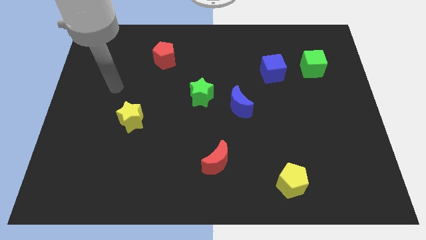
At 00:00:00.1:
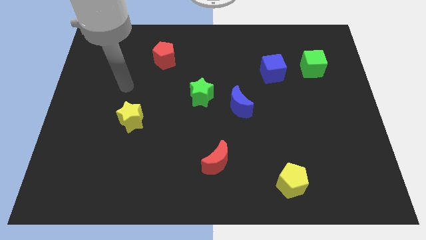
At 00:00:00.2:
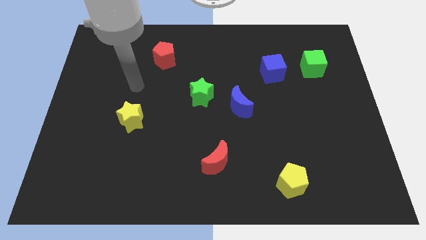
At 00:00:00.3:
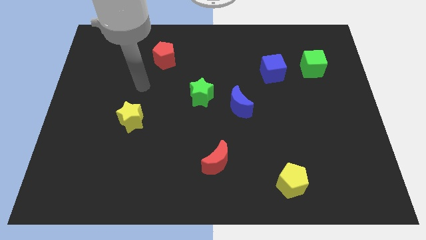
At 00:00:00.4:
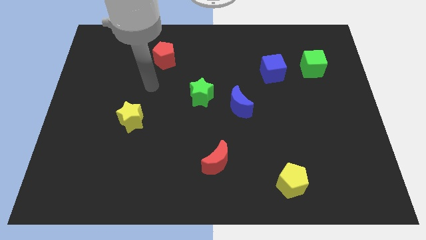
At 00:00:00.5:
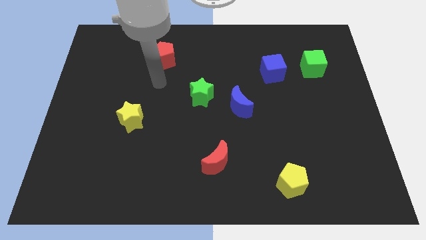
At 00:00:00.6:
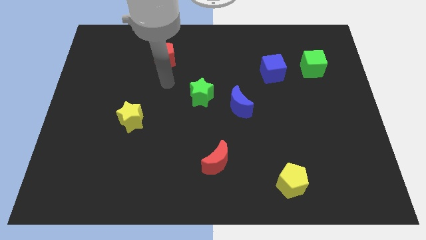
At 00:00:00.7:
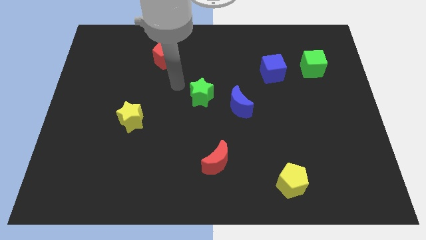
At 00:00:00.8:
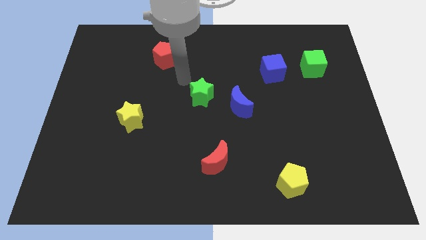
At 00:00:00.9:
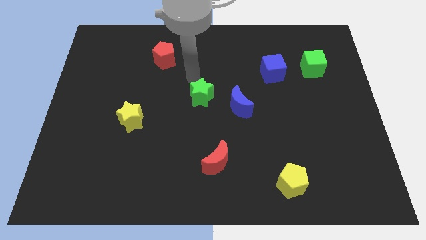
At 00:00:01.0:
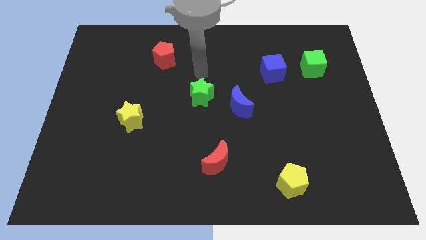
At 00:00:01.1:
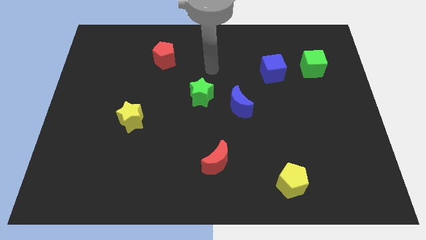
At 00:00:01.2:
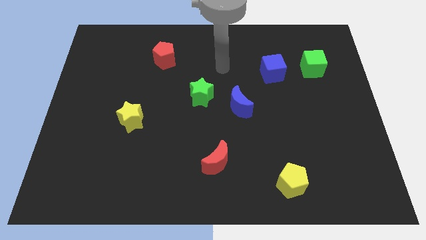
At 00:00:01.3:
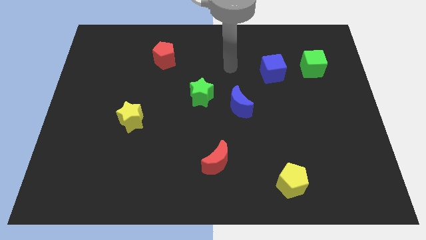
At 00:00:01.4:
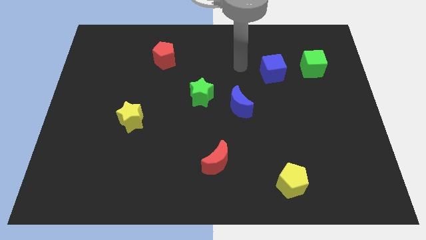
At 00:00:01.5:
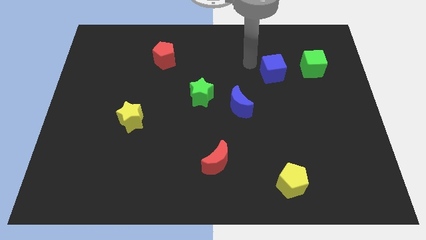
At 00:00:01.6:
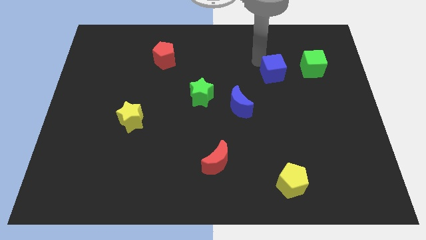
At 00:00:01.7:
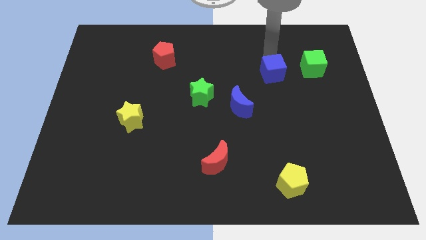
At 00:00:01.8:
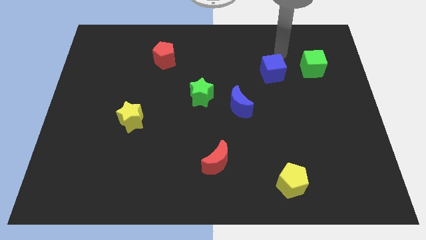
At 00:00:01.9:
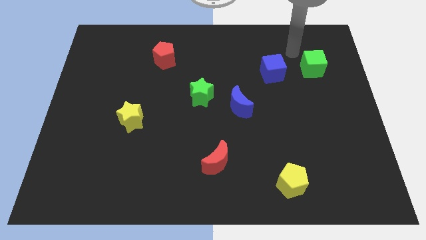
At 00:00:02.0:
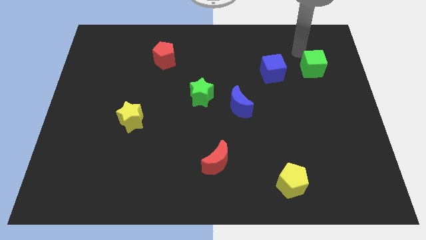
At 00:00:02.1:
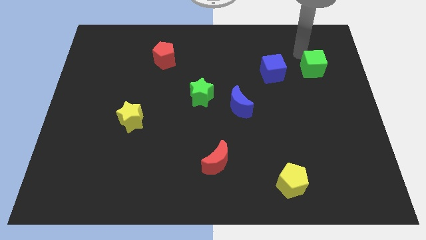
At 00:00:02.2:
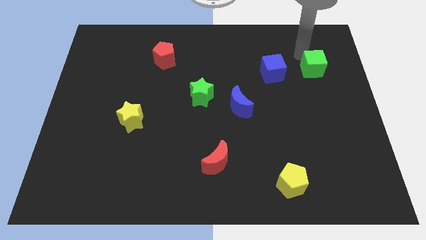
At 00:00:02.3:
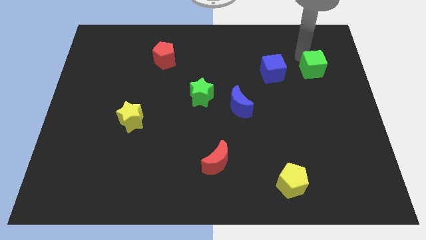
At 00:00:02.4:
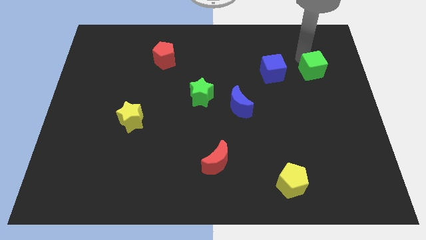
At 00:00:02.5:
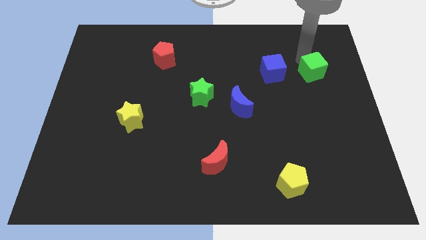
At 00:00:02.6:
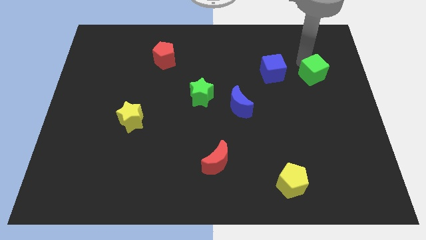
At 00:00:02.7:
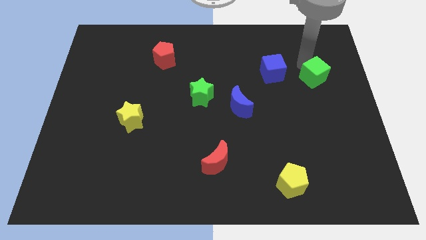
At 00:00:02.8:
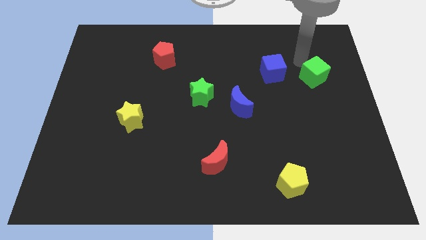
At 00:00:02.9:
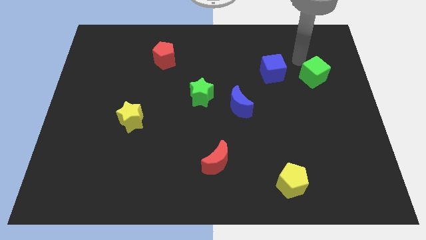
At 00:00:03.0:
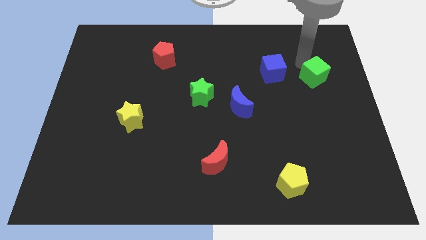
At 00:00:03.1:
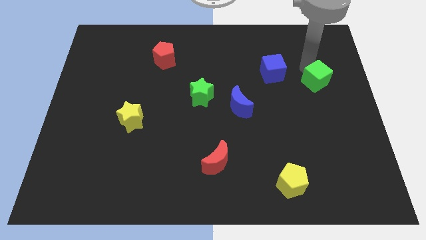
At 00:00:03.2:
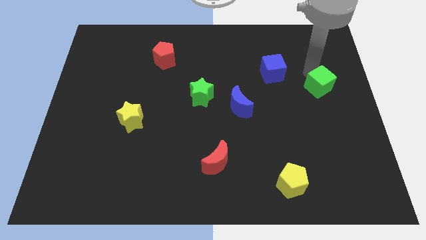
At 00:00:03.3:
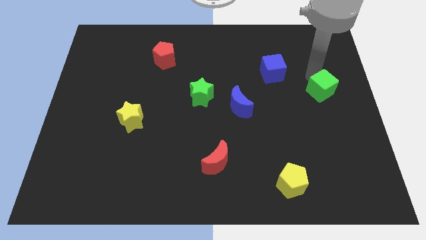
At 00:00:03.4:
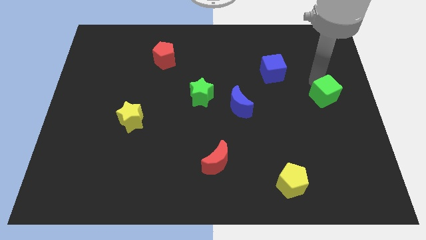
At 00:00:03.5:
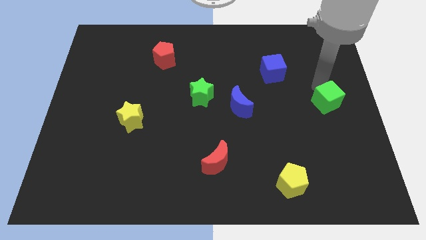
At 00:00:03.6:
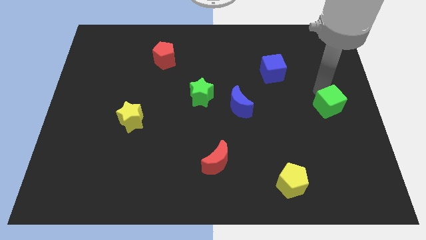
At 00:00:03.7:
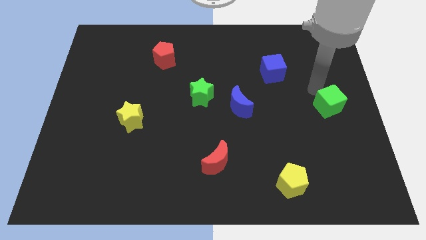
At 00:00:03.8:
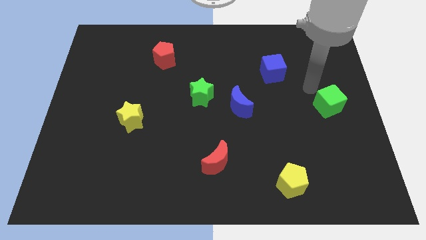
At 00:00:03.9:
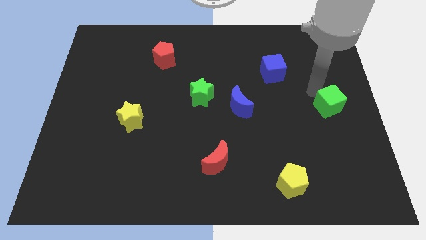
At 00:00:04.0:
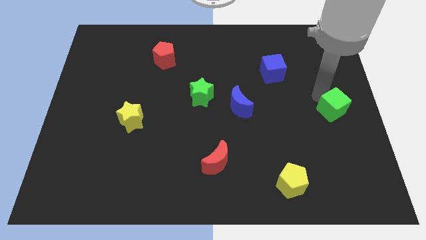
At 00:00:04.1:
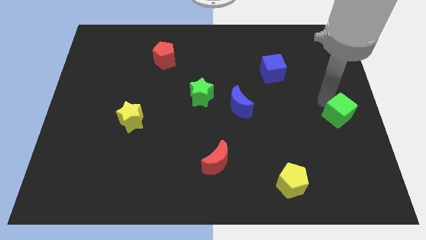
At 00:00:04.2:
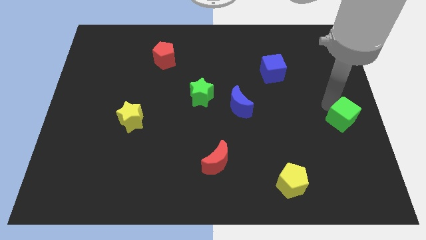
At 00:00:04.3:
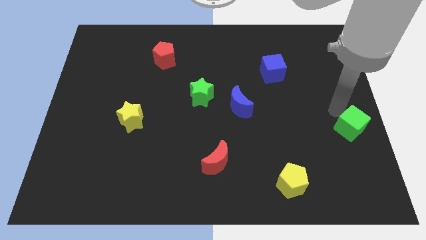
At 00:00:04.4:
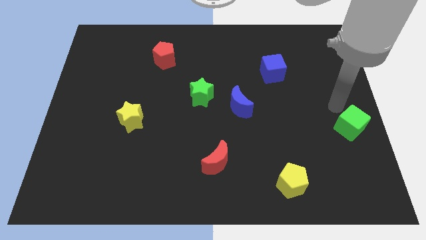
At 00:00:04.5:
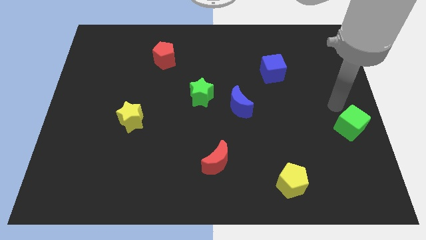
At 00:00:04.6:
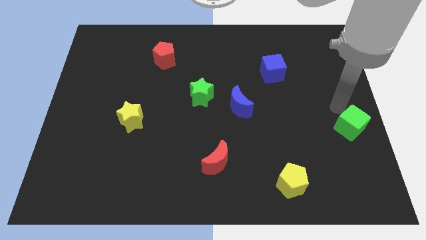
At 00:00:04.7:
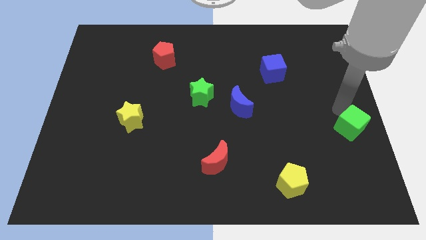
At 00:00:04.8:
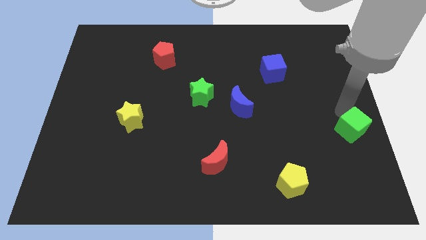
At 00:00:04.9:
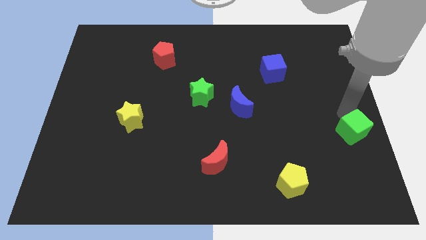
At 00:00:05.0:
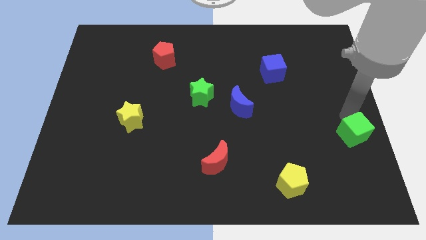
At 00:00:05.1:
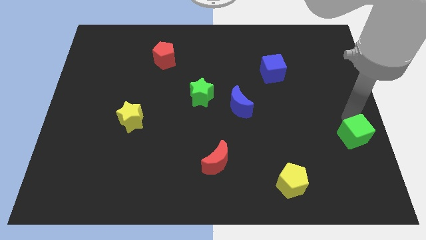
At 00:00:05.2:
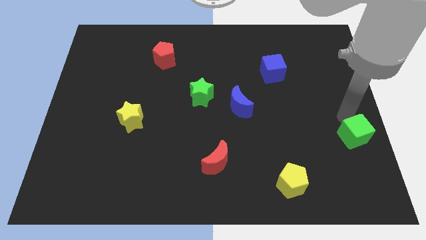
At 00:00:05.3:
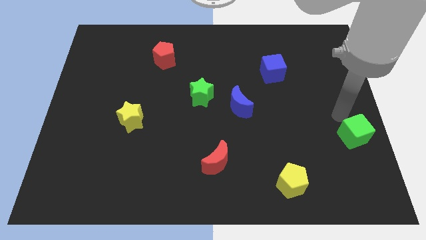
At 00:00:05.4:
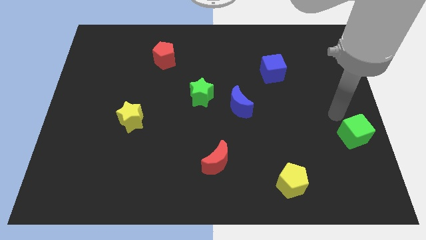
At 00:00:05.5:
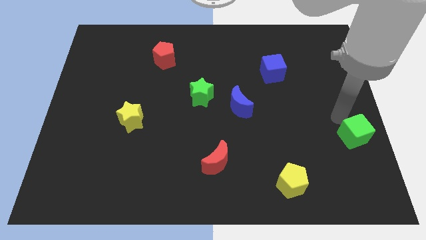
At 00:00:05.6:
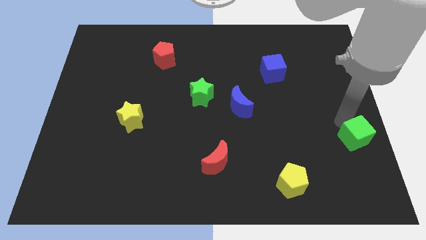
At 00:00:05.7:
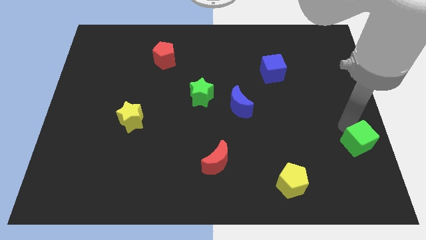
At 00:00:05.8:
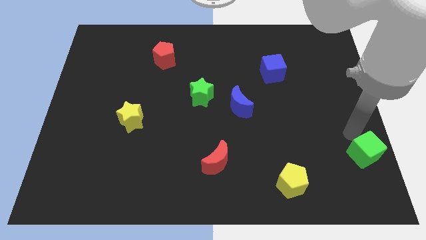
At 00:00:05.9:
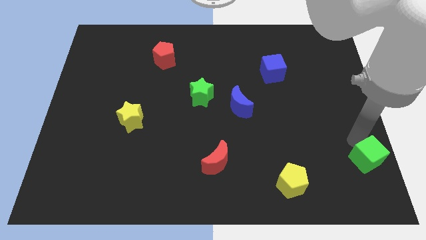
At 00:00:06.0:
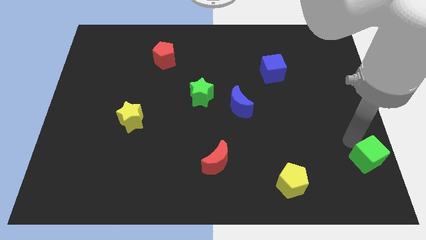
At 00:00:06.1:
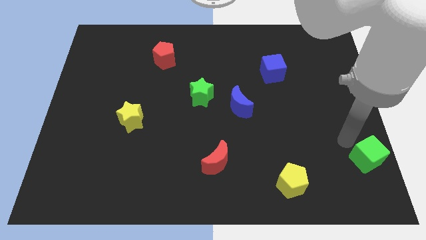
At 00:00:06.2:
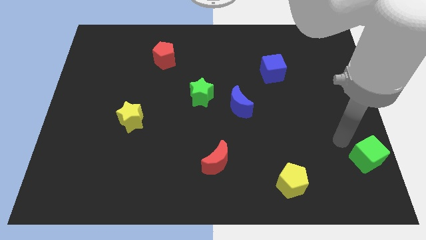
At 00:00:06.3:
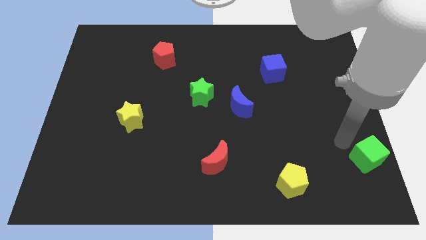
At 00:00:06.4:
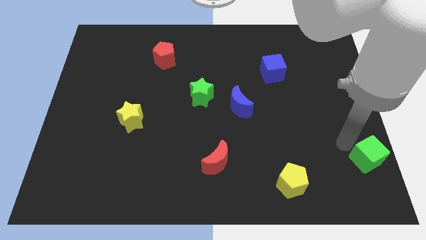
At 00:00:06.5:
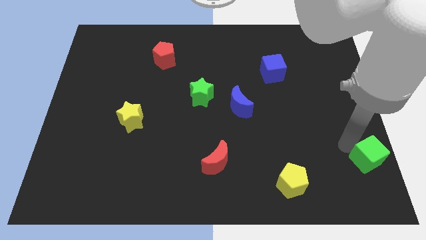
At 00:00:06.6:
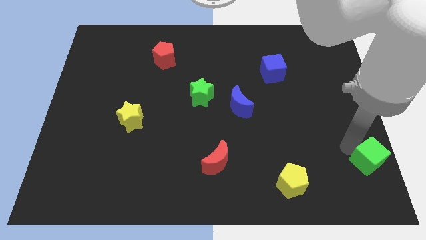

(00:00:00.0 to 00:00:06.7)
slide the green cube to the bottom right of the board

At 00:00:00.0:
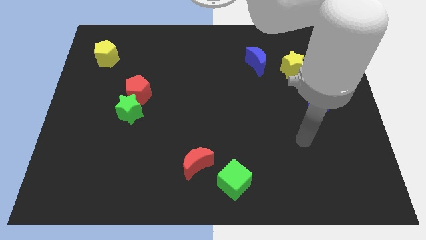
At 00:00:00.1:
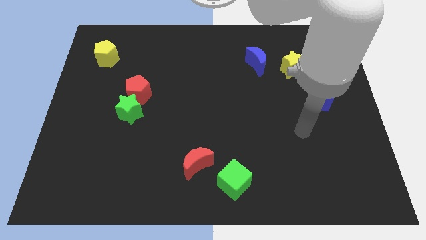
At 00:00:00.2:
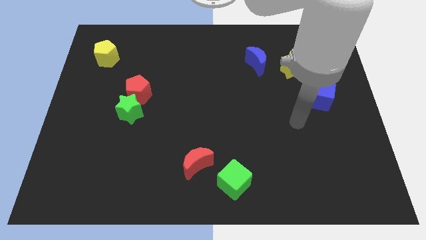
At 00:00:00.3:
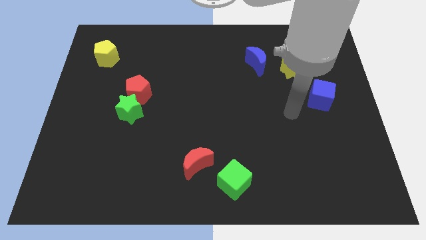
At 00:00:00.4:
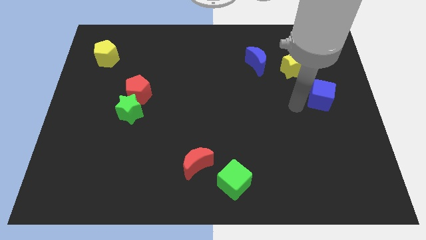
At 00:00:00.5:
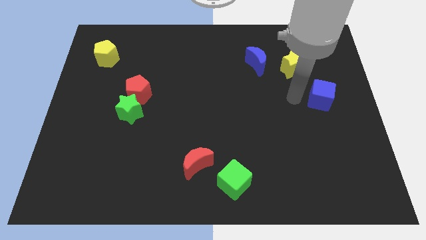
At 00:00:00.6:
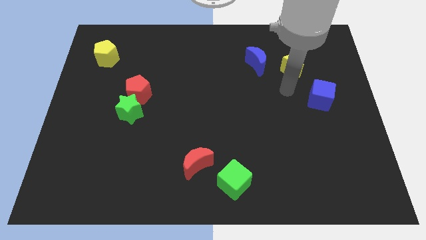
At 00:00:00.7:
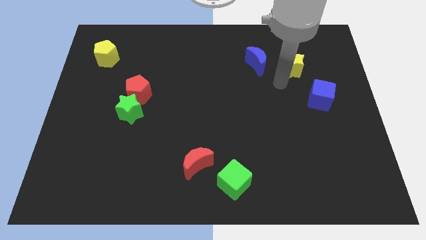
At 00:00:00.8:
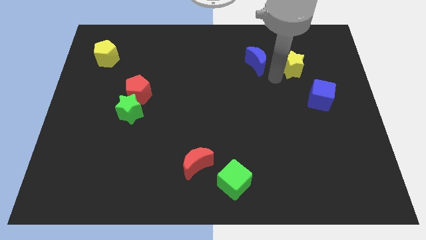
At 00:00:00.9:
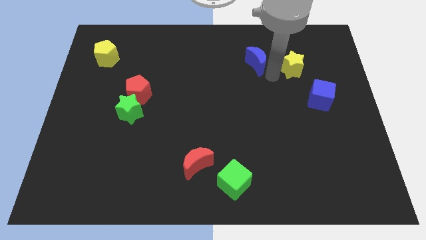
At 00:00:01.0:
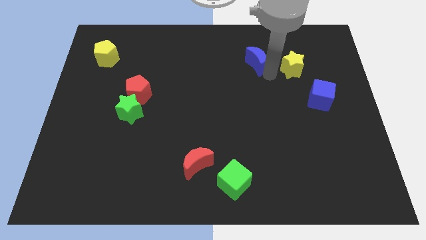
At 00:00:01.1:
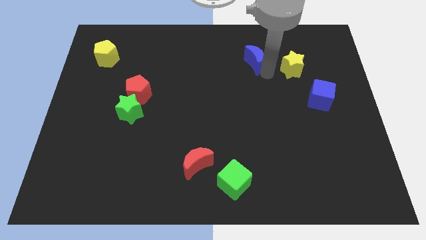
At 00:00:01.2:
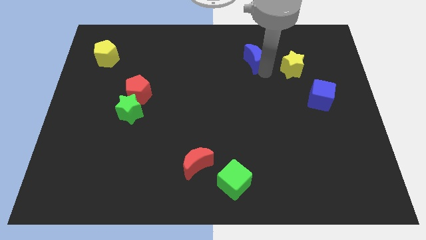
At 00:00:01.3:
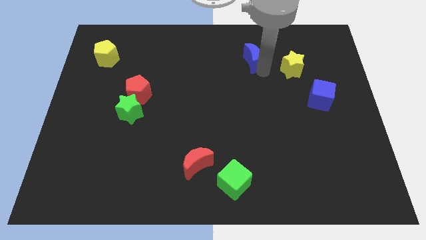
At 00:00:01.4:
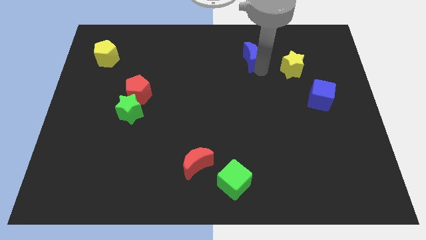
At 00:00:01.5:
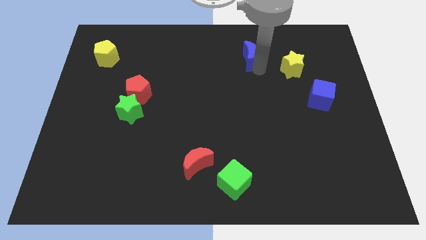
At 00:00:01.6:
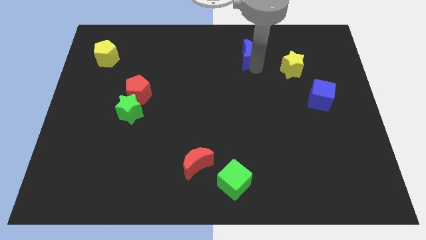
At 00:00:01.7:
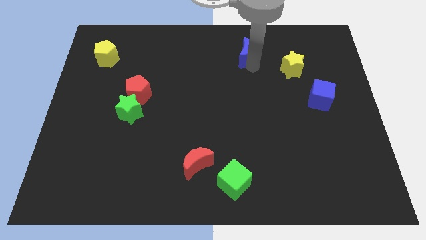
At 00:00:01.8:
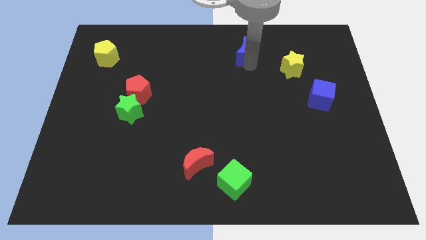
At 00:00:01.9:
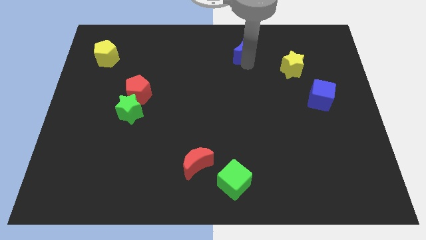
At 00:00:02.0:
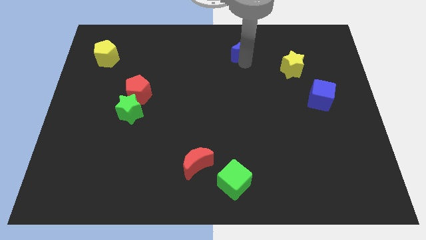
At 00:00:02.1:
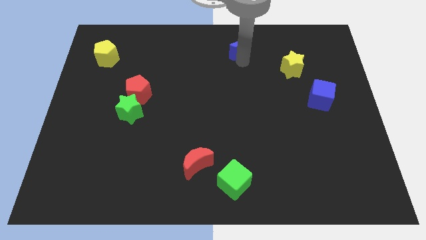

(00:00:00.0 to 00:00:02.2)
push the blue moon to the towards your base
